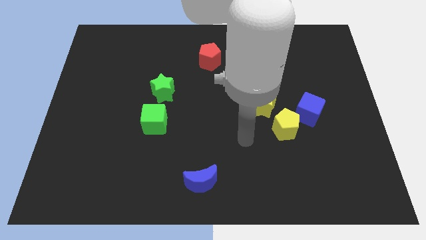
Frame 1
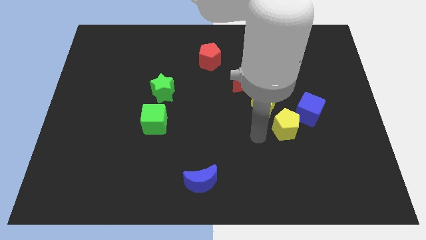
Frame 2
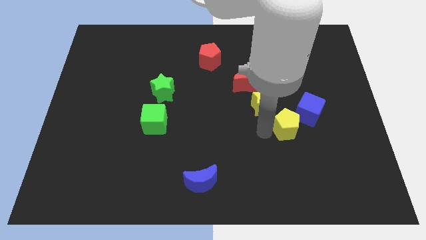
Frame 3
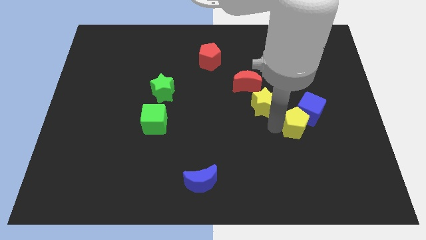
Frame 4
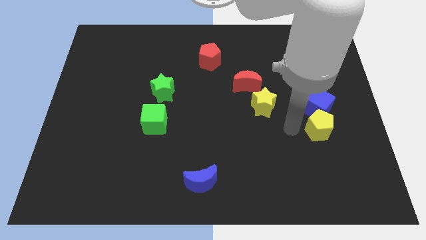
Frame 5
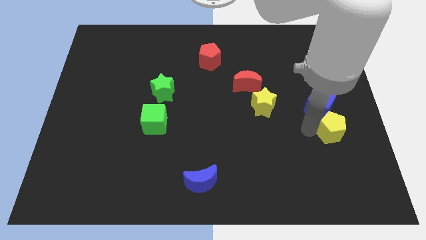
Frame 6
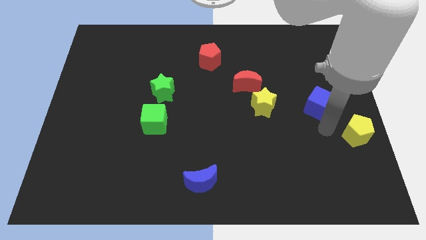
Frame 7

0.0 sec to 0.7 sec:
move the blue cube away from the yellow pentagon

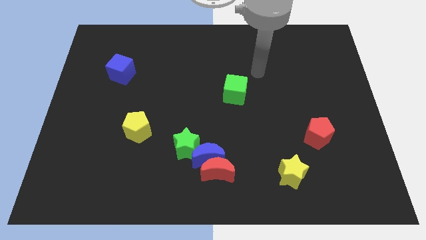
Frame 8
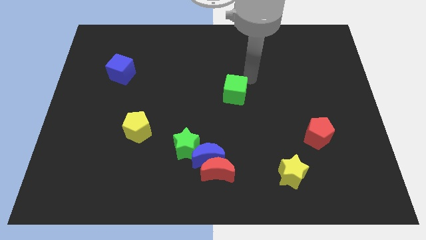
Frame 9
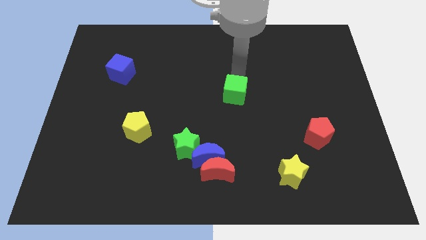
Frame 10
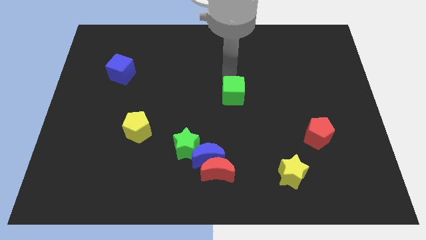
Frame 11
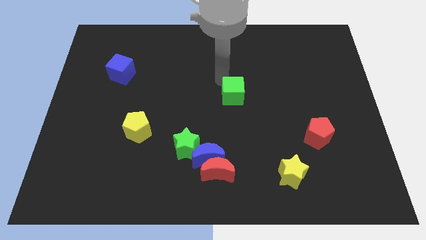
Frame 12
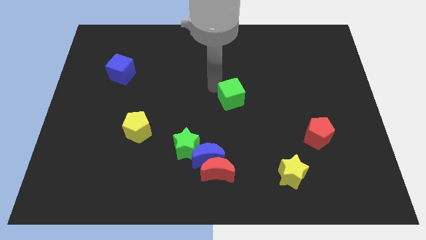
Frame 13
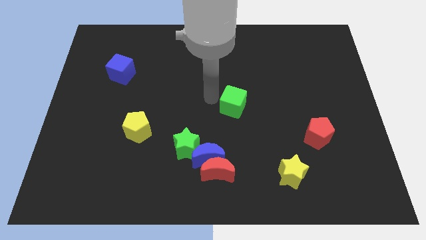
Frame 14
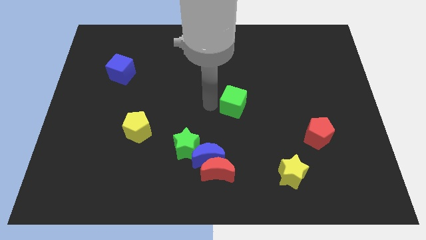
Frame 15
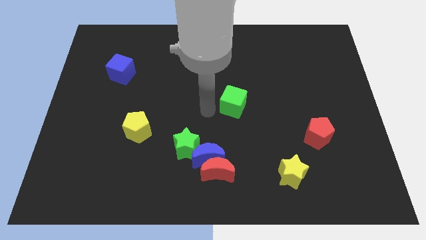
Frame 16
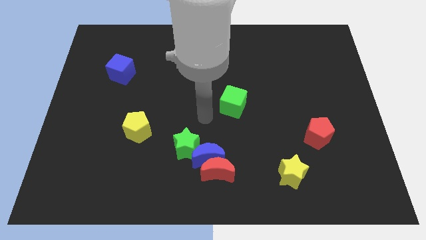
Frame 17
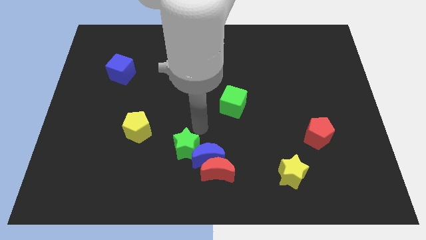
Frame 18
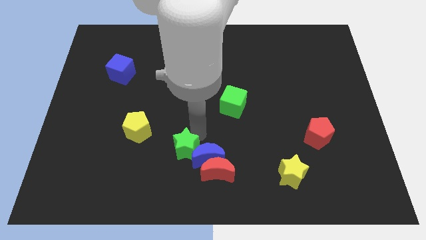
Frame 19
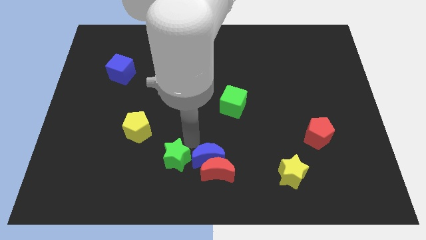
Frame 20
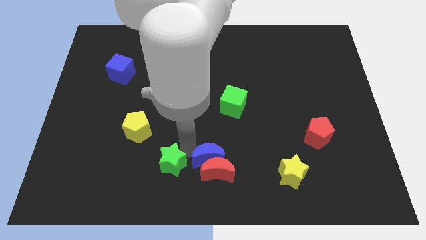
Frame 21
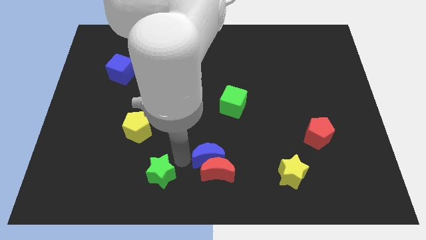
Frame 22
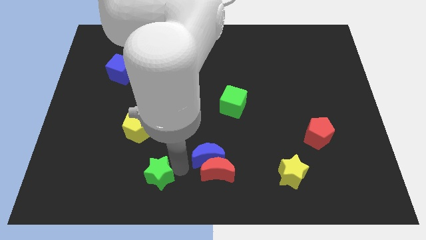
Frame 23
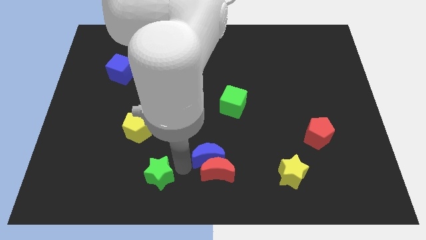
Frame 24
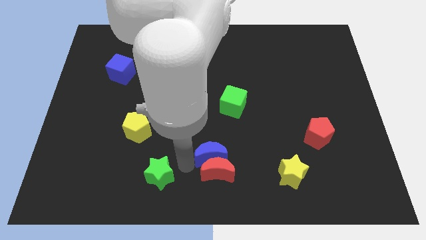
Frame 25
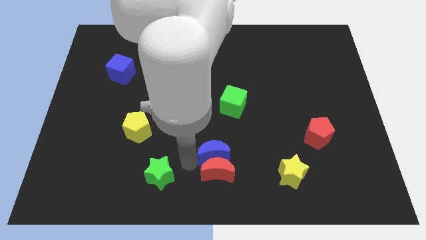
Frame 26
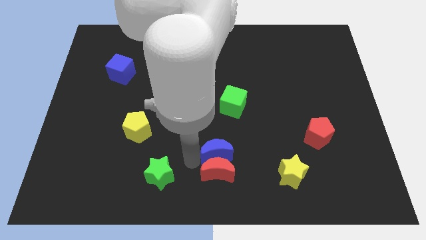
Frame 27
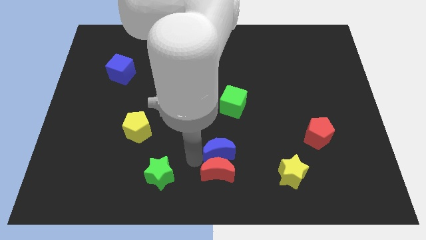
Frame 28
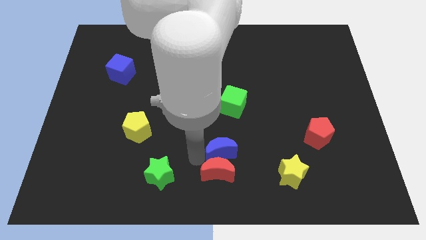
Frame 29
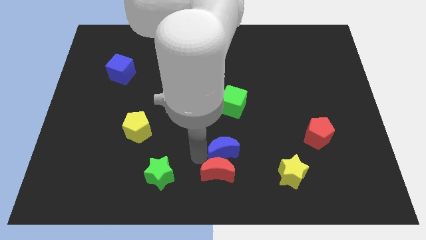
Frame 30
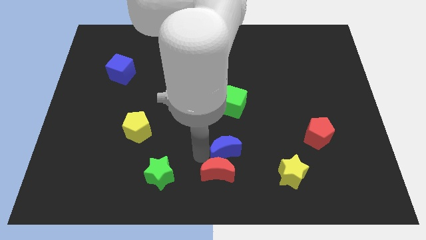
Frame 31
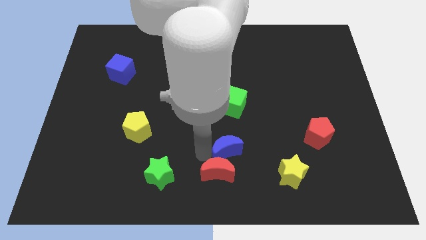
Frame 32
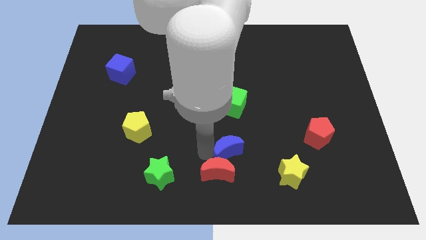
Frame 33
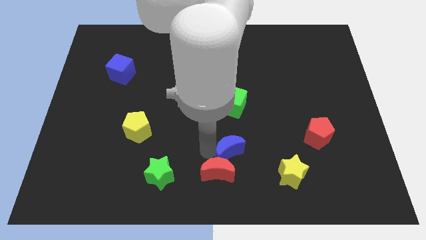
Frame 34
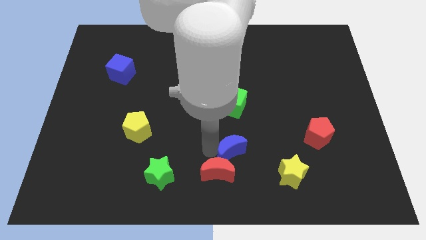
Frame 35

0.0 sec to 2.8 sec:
pull the blue moon apart from the red moon and green star

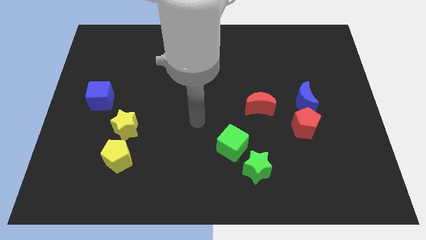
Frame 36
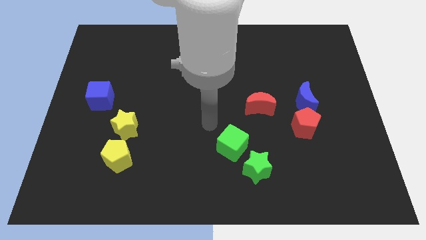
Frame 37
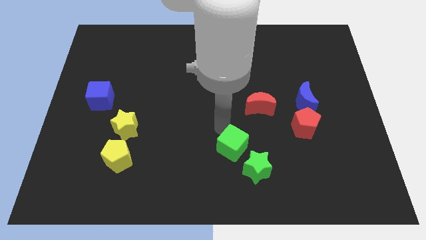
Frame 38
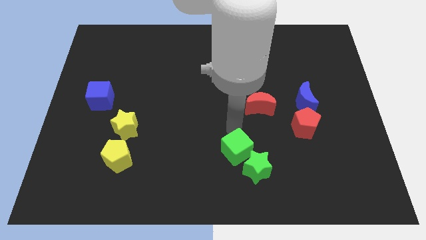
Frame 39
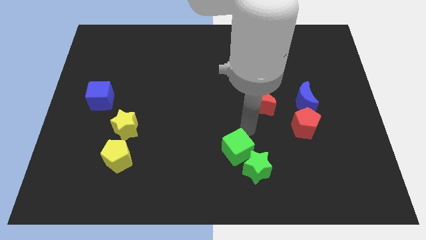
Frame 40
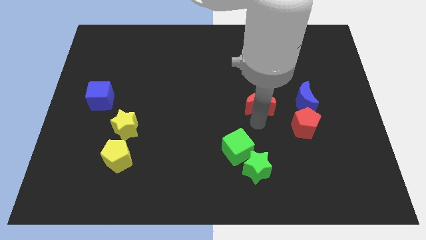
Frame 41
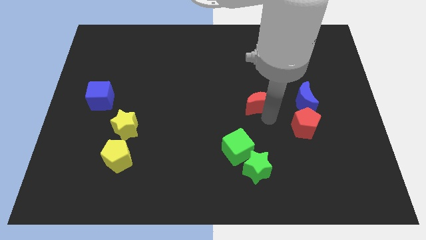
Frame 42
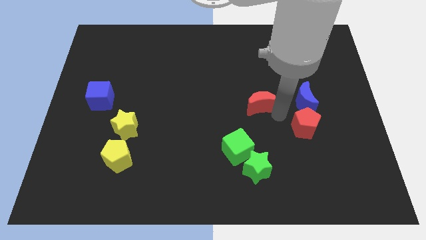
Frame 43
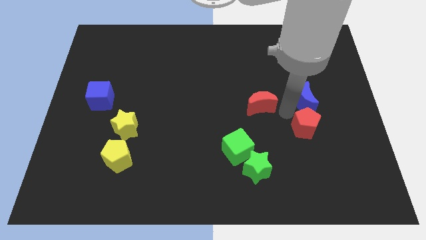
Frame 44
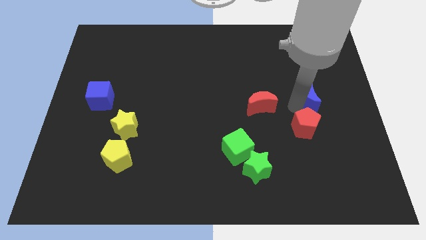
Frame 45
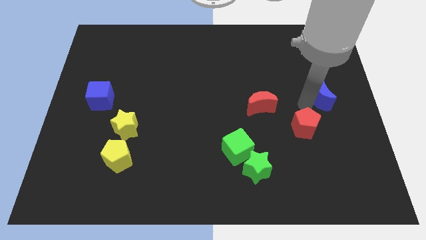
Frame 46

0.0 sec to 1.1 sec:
separate the red pentagon from the blue moon

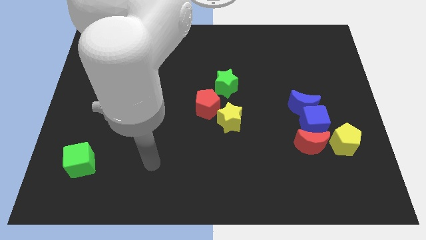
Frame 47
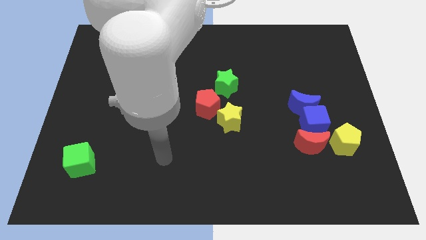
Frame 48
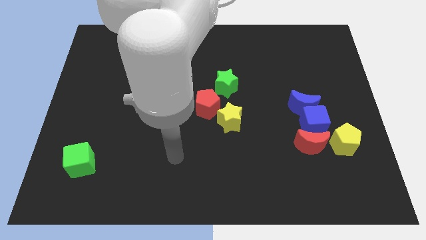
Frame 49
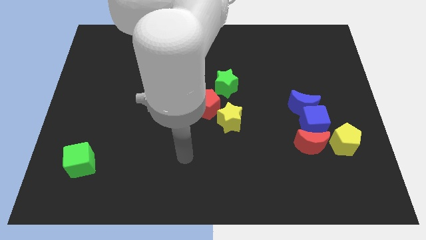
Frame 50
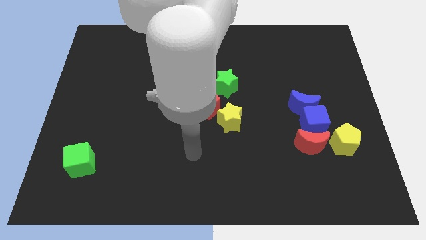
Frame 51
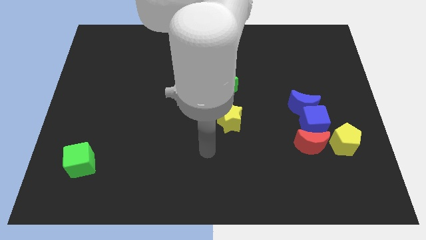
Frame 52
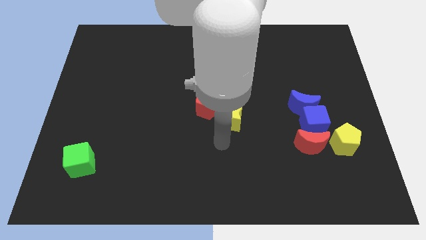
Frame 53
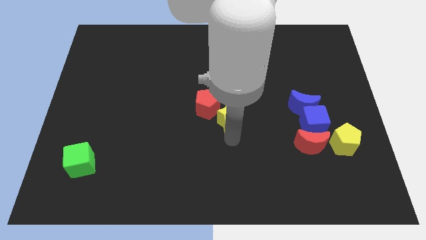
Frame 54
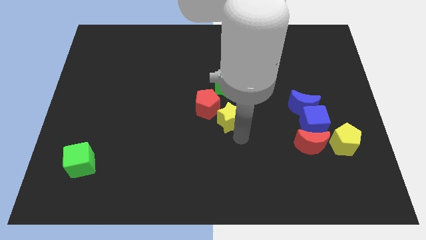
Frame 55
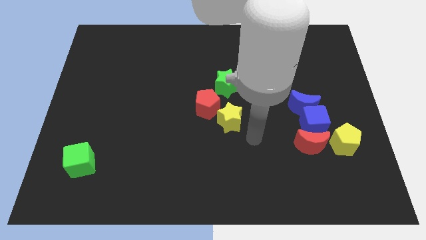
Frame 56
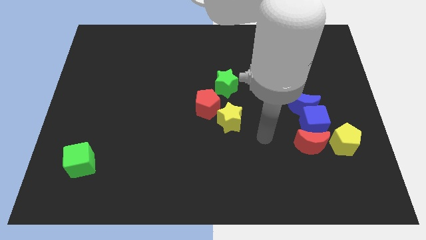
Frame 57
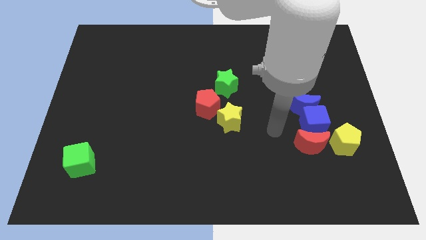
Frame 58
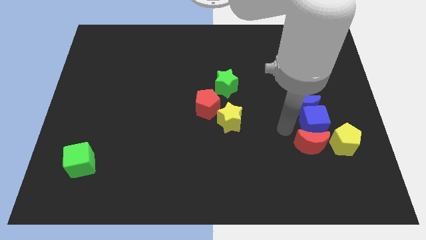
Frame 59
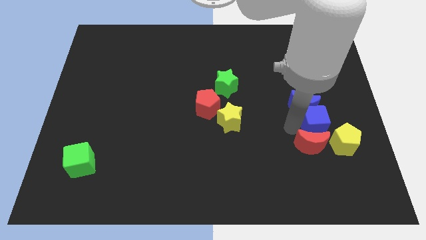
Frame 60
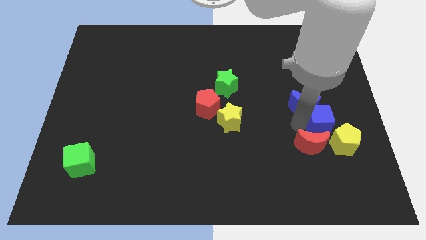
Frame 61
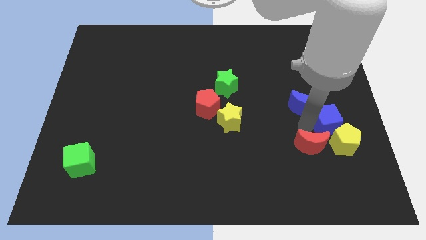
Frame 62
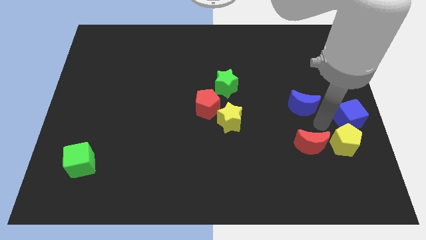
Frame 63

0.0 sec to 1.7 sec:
pull the blue moon apart from the blue cube

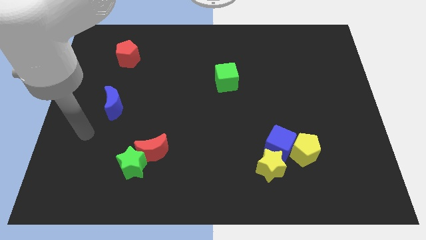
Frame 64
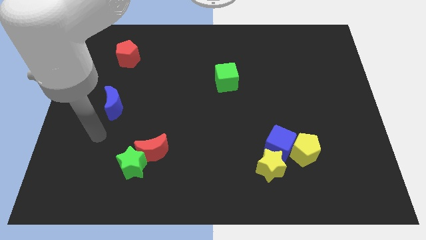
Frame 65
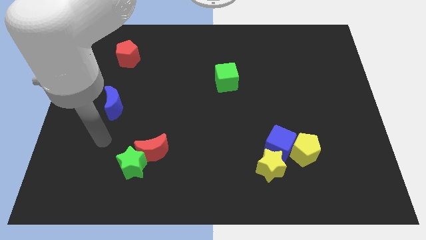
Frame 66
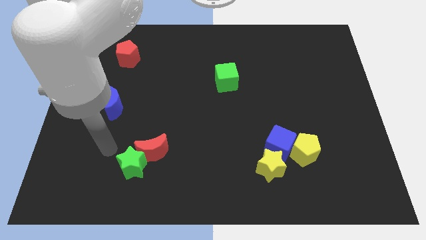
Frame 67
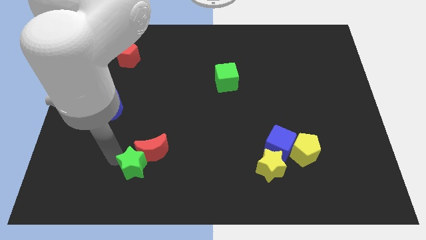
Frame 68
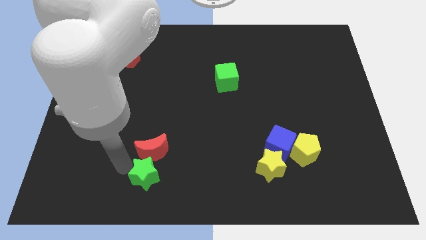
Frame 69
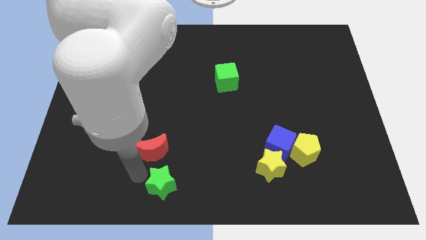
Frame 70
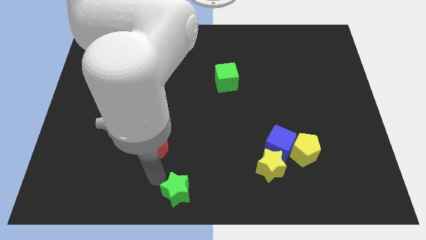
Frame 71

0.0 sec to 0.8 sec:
move the red moon away from the green star

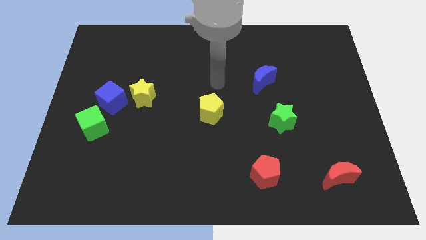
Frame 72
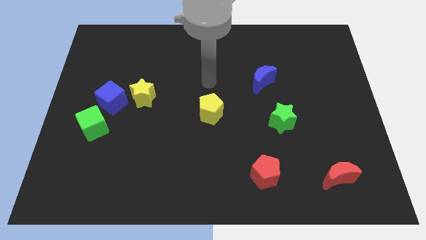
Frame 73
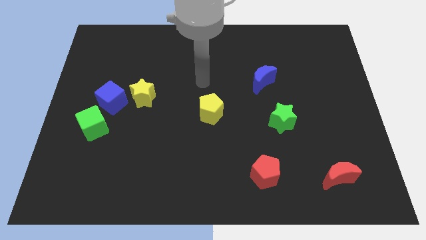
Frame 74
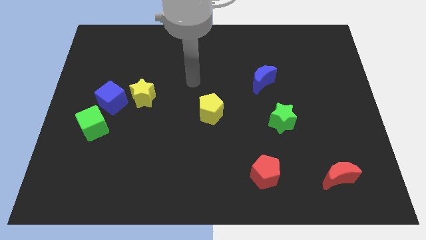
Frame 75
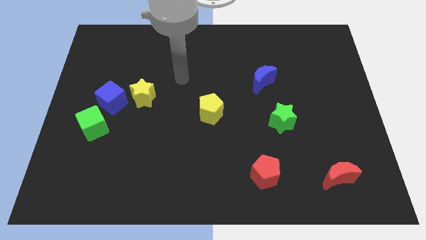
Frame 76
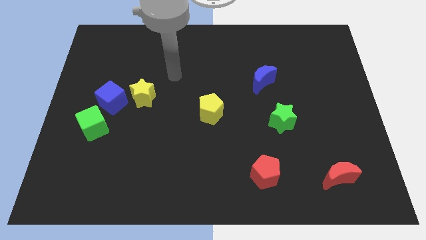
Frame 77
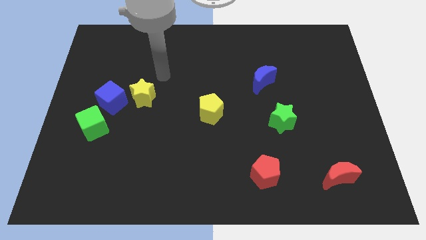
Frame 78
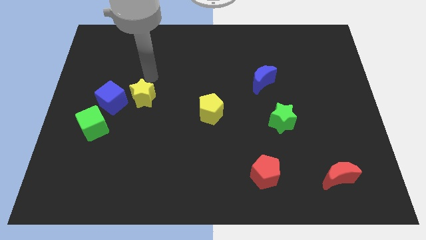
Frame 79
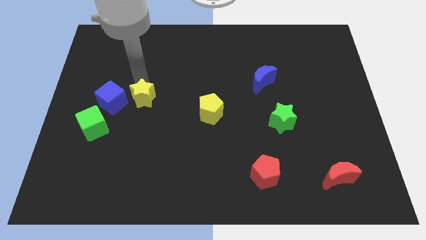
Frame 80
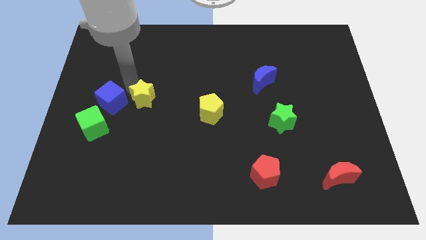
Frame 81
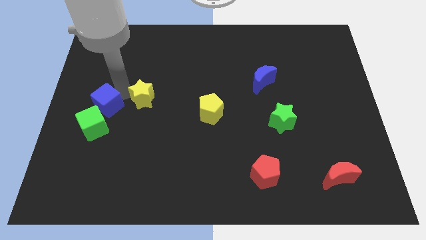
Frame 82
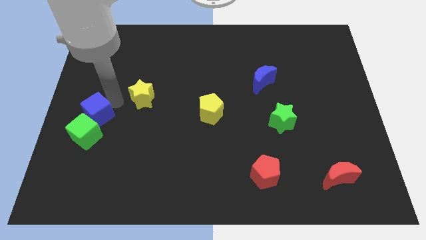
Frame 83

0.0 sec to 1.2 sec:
separate the yellow star from the blue cube

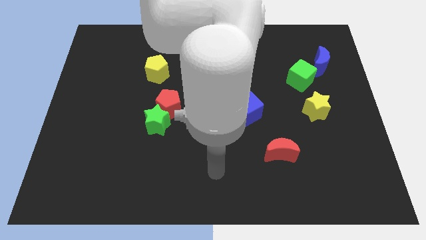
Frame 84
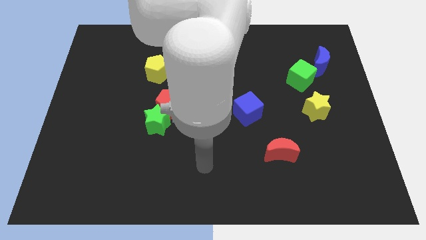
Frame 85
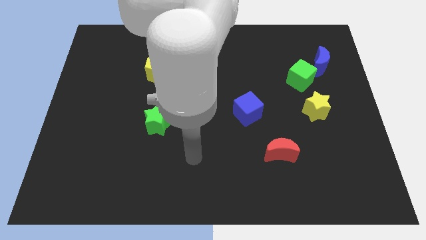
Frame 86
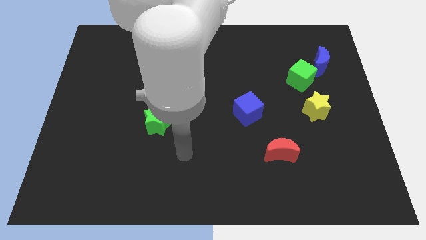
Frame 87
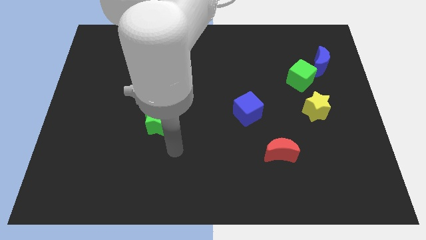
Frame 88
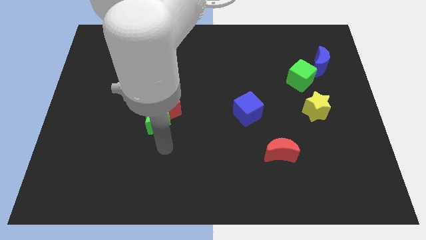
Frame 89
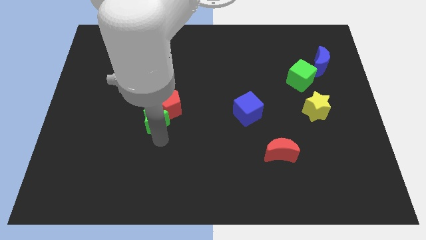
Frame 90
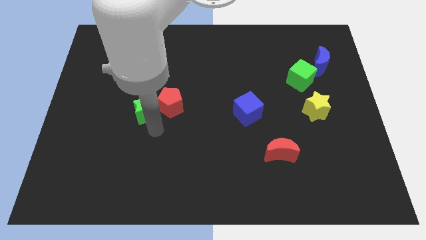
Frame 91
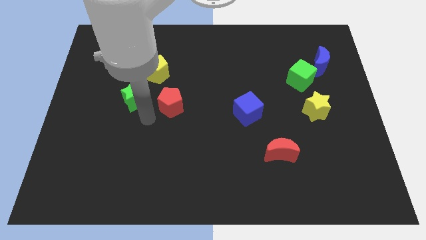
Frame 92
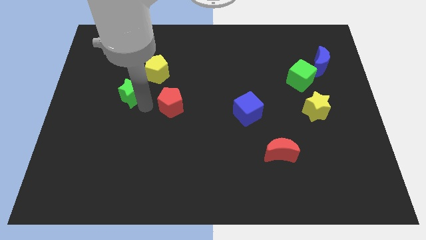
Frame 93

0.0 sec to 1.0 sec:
separate the red pentagon from the green star

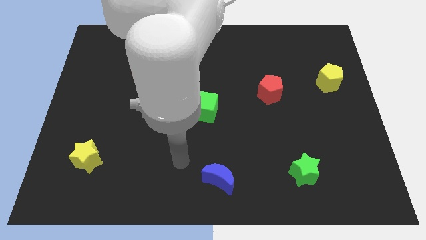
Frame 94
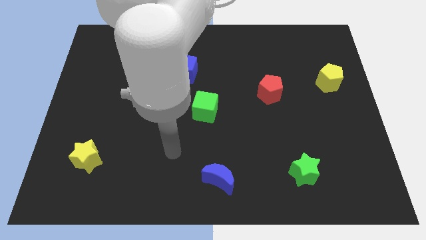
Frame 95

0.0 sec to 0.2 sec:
pull the red moon apart from the blue cube
